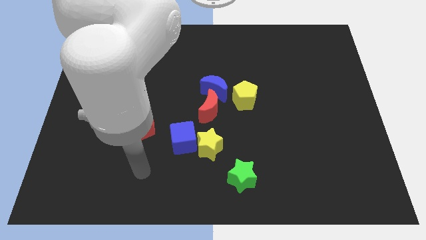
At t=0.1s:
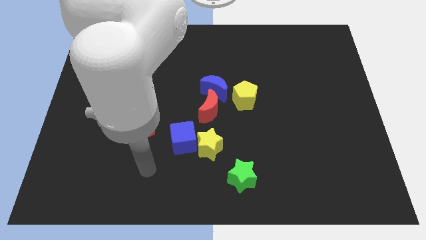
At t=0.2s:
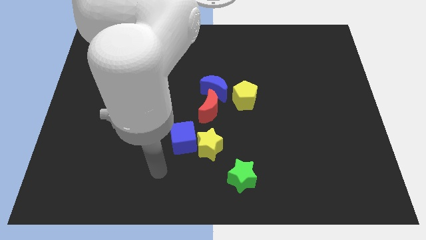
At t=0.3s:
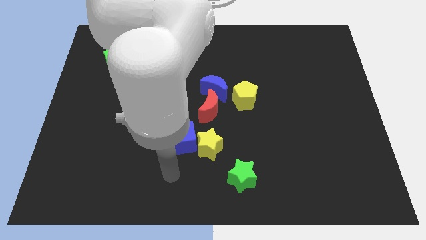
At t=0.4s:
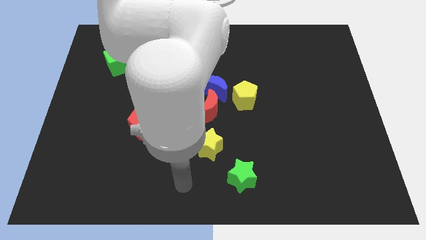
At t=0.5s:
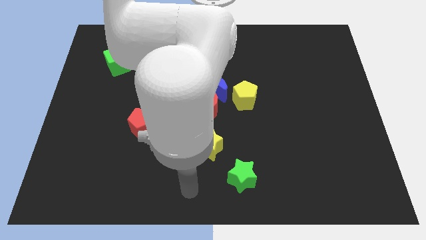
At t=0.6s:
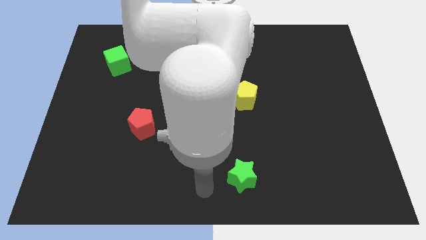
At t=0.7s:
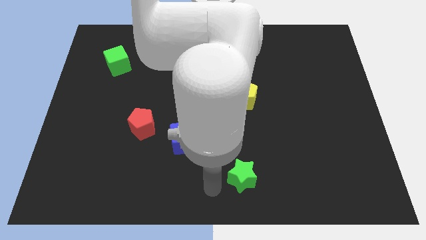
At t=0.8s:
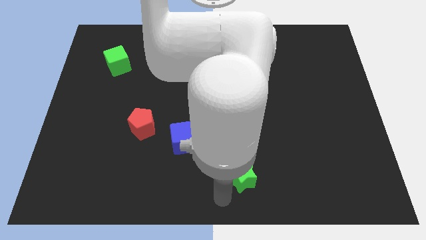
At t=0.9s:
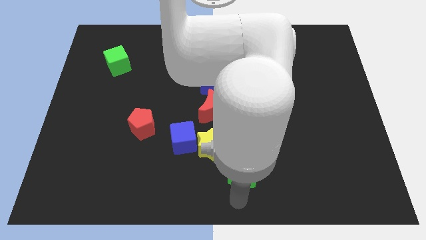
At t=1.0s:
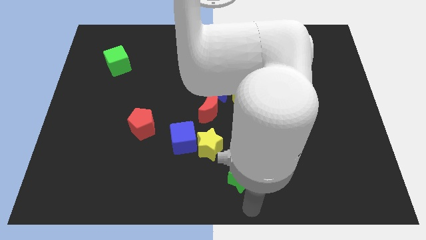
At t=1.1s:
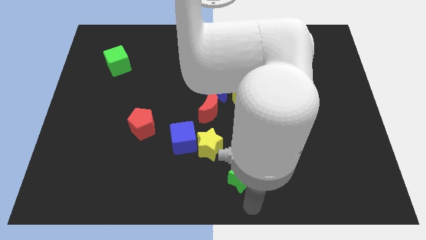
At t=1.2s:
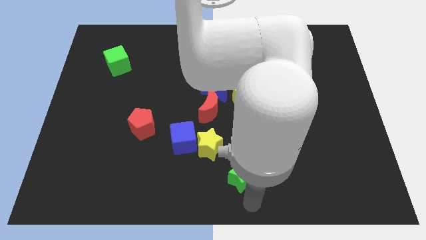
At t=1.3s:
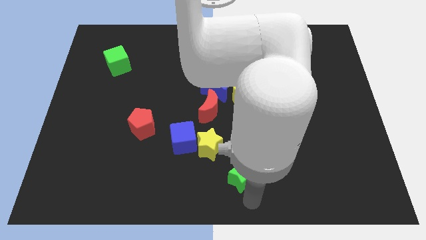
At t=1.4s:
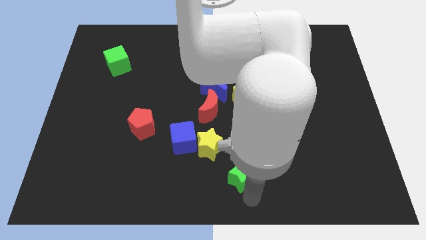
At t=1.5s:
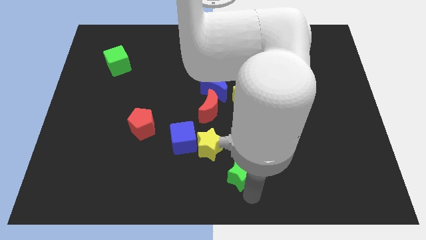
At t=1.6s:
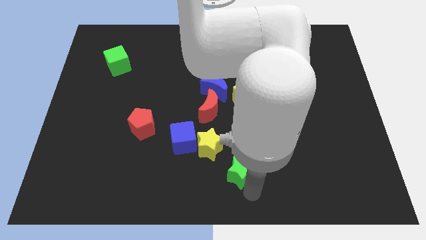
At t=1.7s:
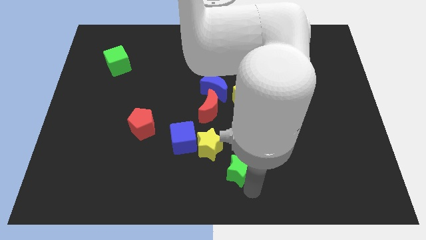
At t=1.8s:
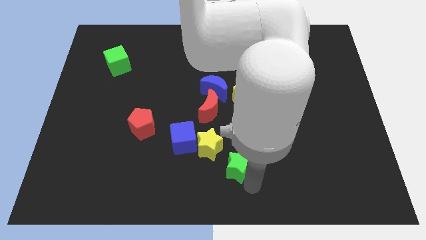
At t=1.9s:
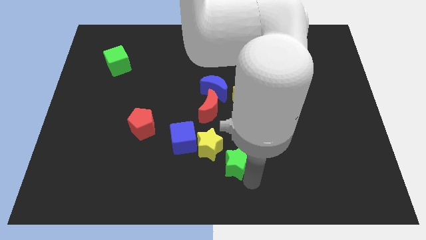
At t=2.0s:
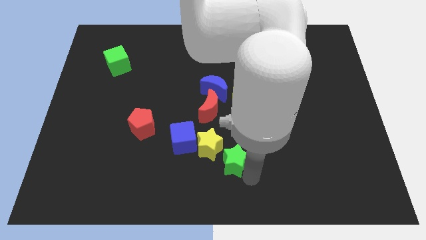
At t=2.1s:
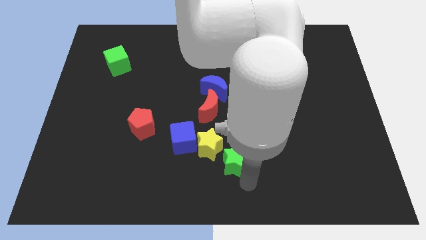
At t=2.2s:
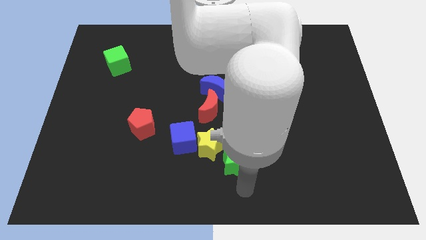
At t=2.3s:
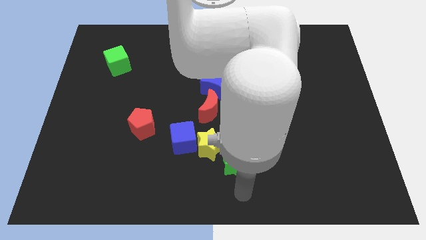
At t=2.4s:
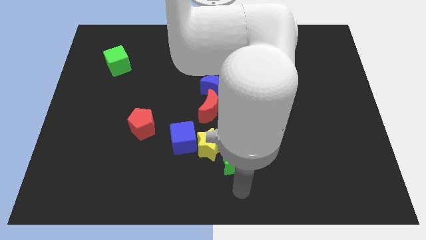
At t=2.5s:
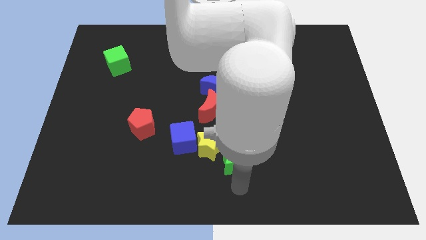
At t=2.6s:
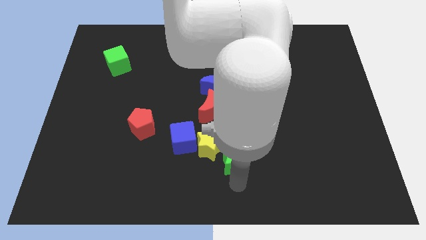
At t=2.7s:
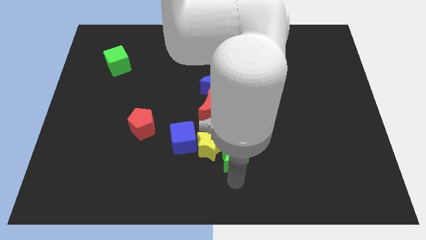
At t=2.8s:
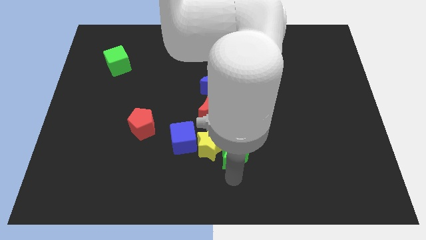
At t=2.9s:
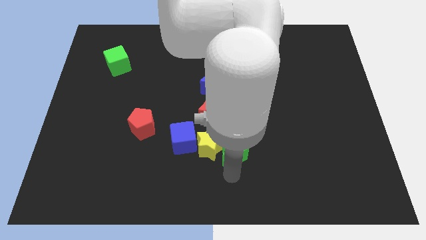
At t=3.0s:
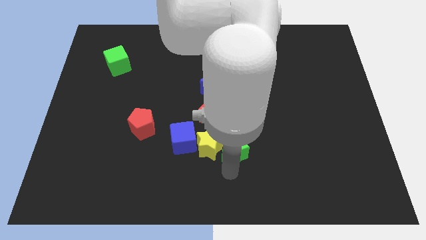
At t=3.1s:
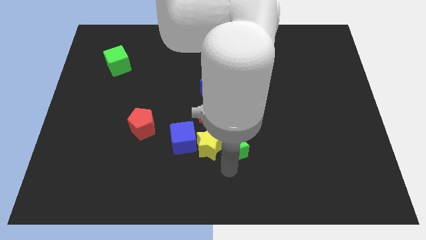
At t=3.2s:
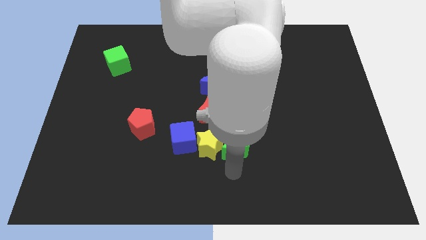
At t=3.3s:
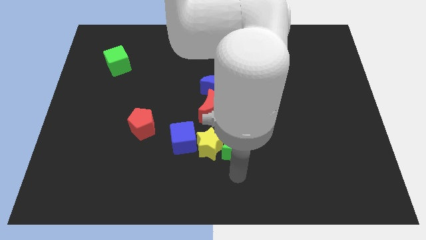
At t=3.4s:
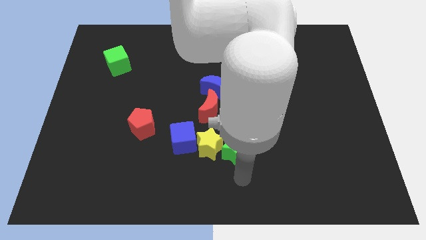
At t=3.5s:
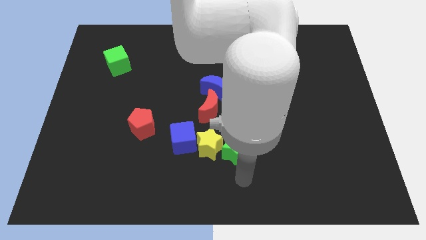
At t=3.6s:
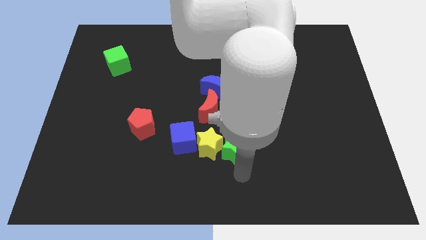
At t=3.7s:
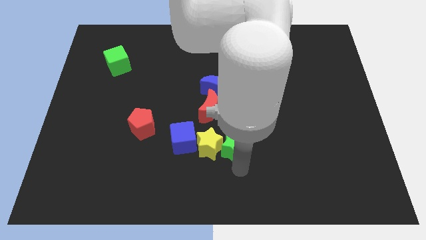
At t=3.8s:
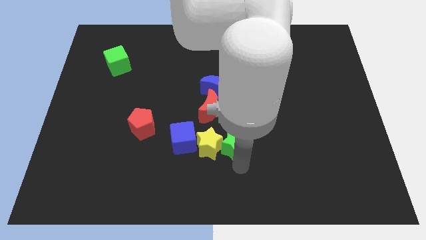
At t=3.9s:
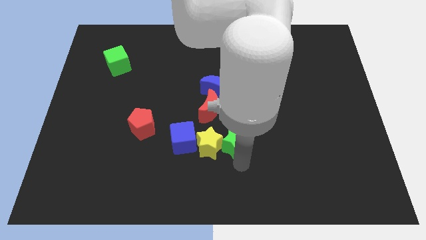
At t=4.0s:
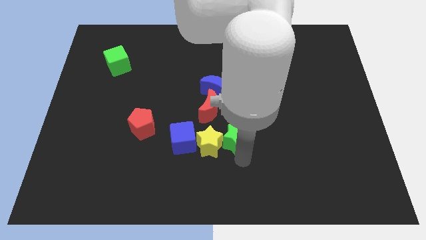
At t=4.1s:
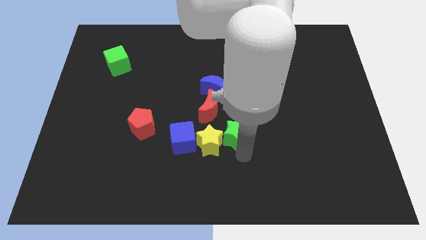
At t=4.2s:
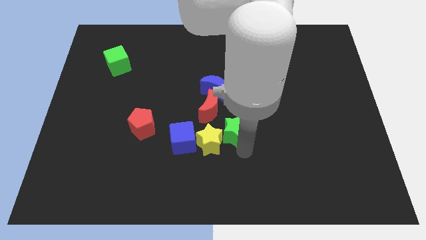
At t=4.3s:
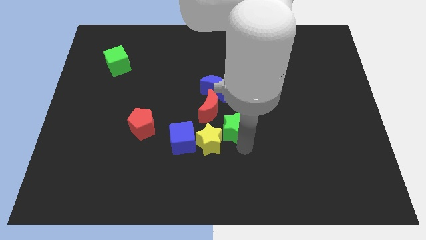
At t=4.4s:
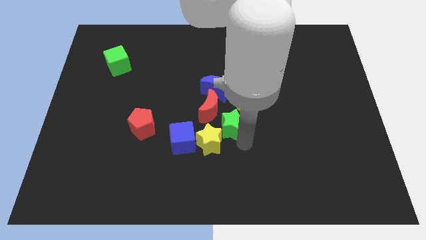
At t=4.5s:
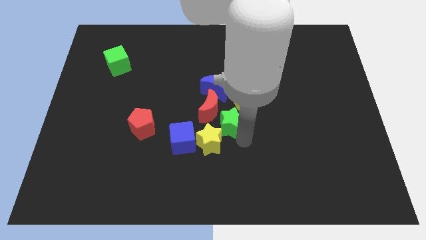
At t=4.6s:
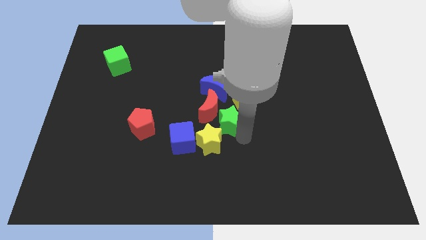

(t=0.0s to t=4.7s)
move the green star towards the red moon

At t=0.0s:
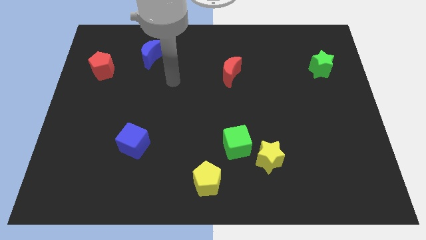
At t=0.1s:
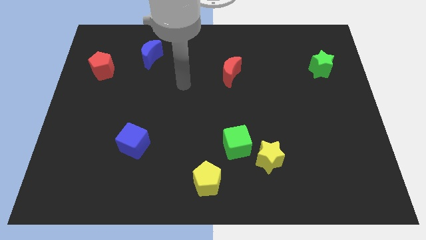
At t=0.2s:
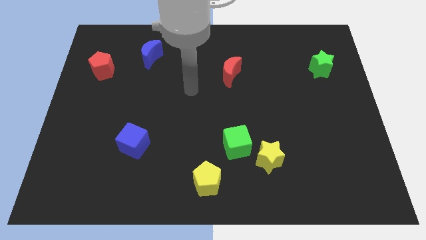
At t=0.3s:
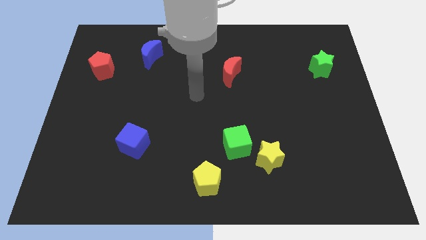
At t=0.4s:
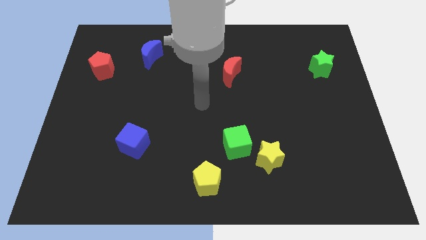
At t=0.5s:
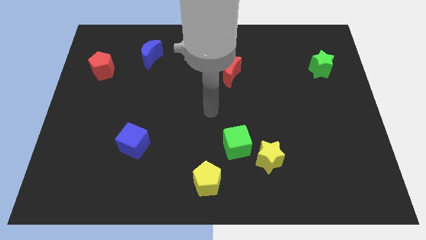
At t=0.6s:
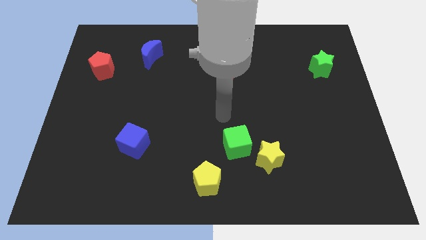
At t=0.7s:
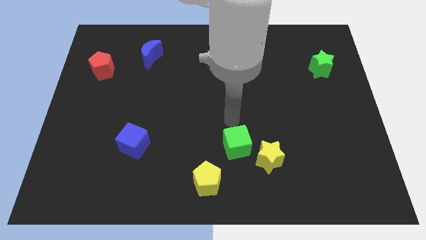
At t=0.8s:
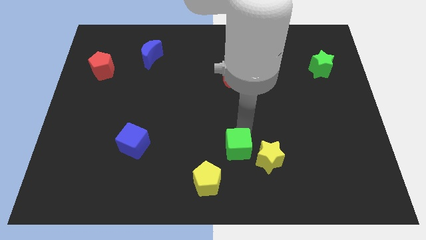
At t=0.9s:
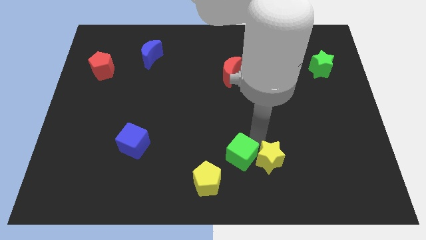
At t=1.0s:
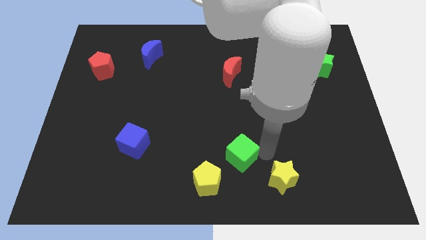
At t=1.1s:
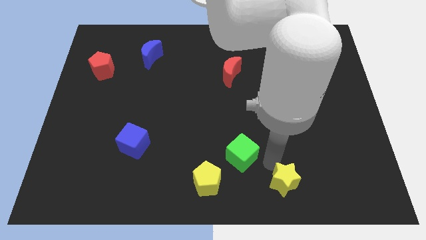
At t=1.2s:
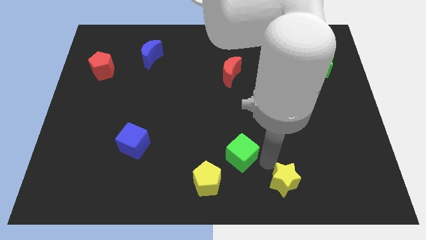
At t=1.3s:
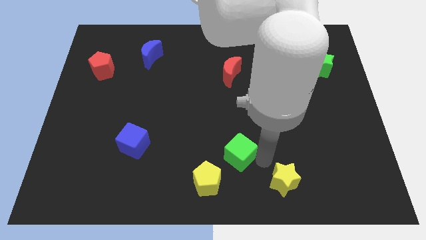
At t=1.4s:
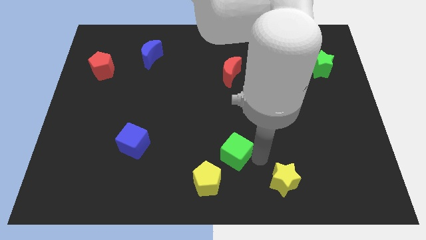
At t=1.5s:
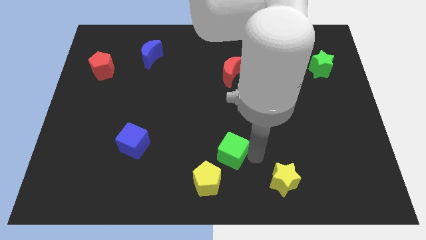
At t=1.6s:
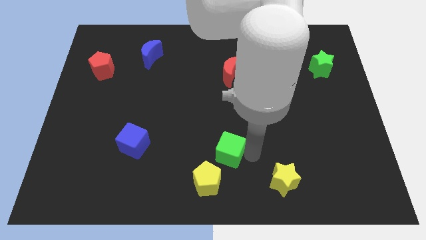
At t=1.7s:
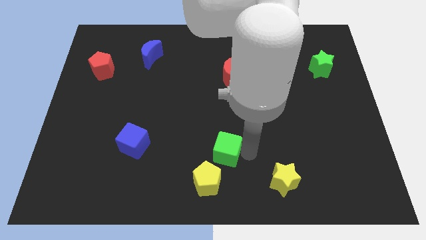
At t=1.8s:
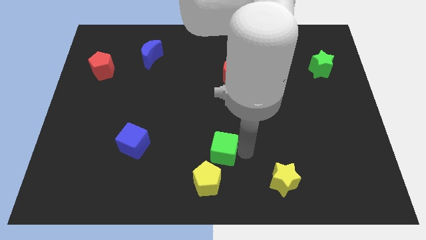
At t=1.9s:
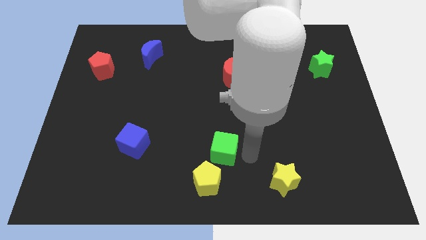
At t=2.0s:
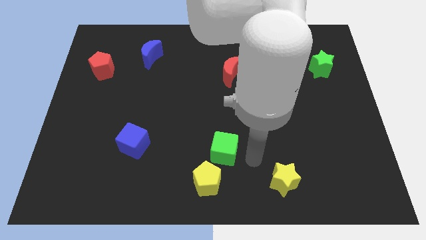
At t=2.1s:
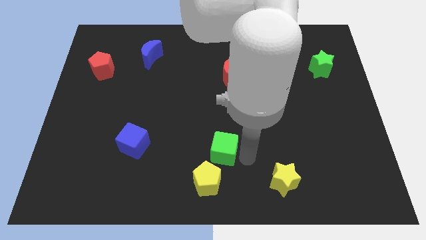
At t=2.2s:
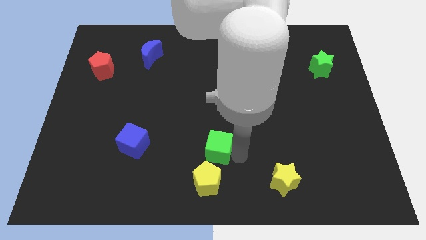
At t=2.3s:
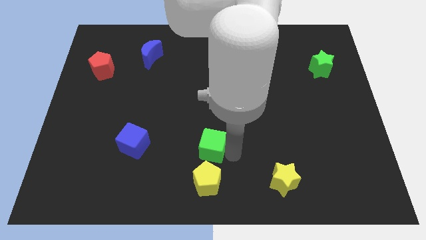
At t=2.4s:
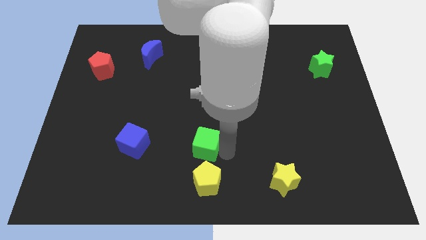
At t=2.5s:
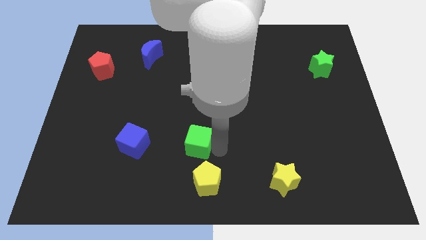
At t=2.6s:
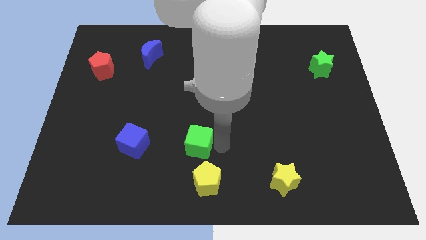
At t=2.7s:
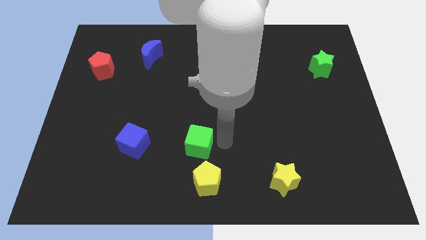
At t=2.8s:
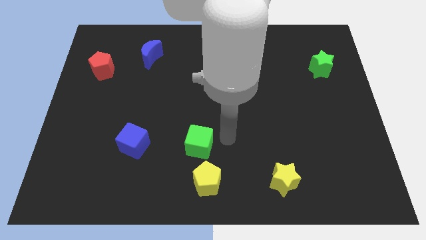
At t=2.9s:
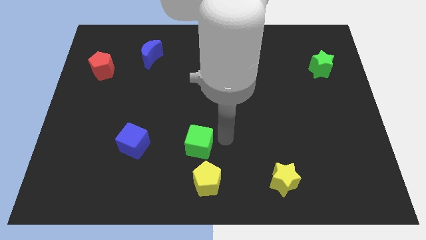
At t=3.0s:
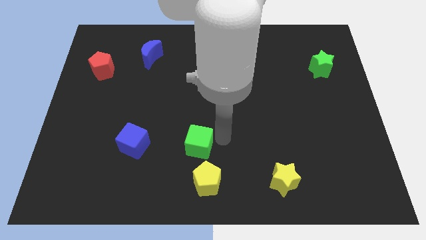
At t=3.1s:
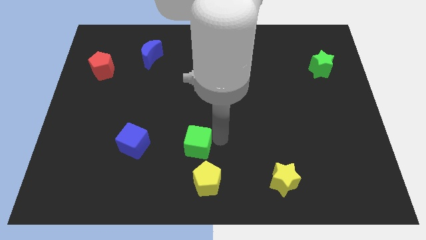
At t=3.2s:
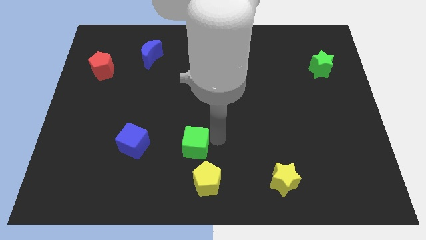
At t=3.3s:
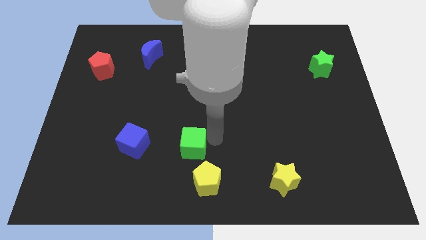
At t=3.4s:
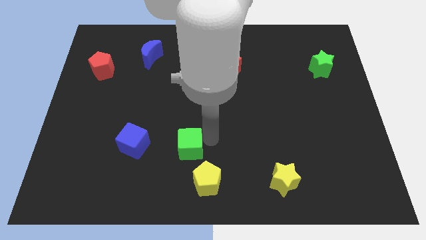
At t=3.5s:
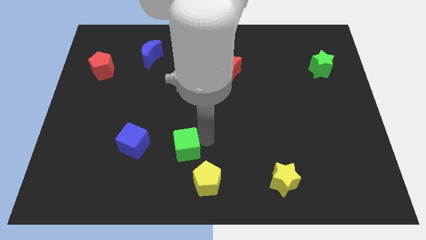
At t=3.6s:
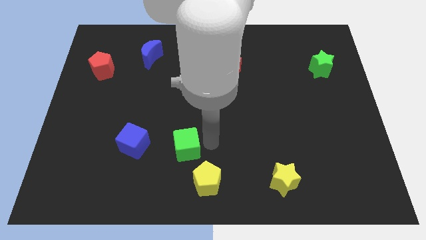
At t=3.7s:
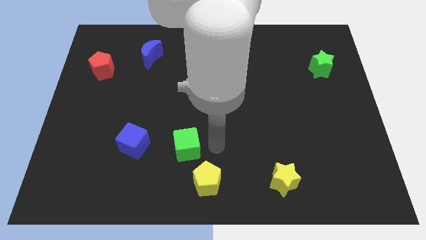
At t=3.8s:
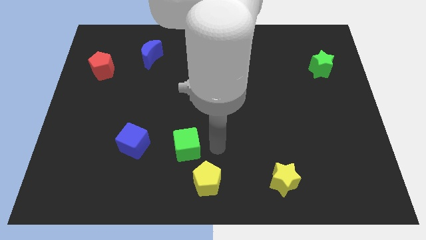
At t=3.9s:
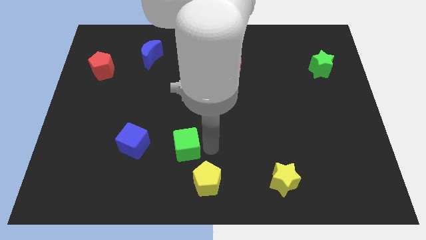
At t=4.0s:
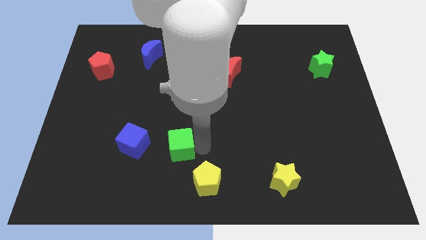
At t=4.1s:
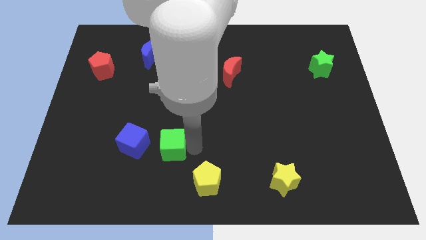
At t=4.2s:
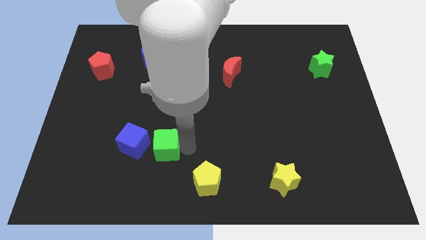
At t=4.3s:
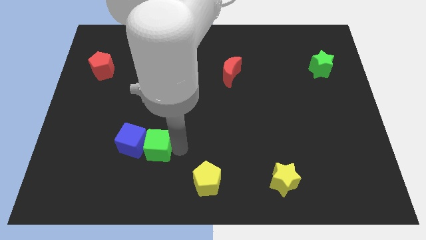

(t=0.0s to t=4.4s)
slide the green cube close to the blue cube
